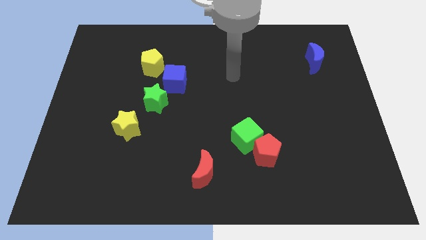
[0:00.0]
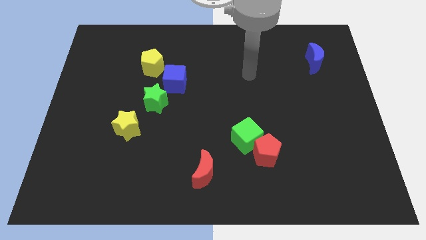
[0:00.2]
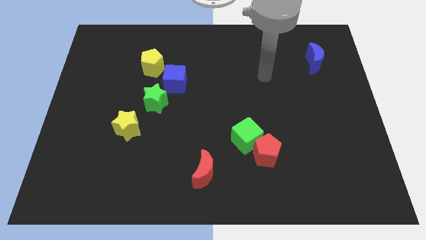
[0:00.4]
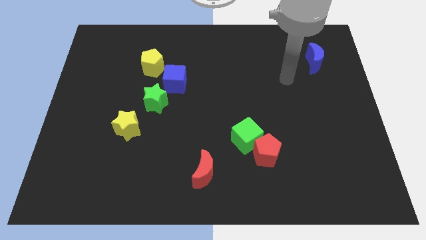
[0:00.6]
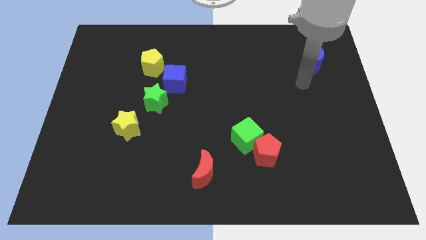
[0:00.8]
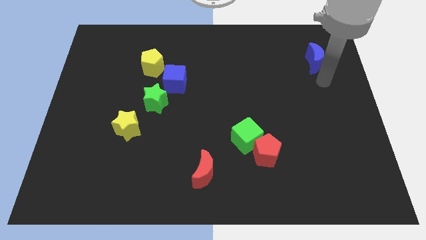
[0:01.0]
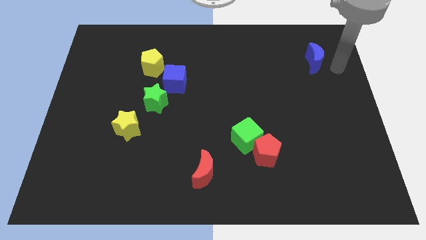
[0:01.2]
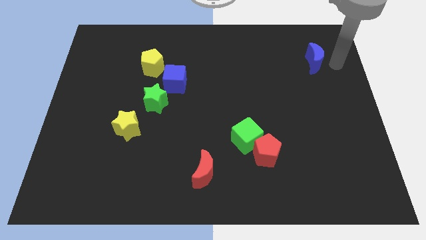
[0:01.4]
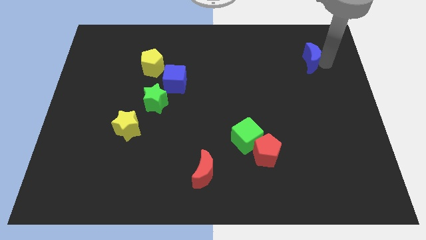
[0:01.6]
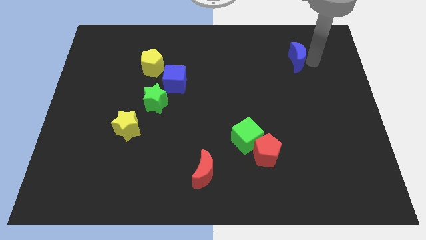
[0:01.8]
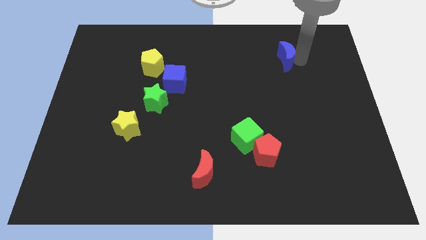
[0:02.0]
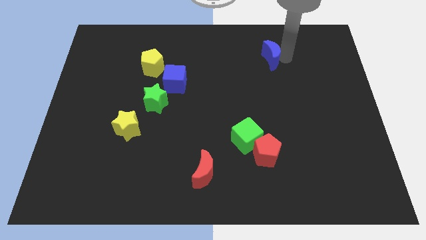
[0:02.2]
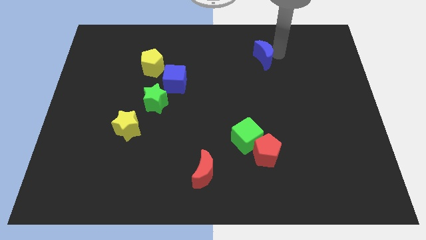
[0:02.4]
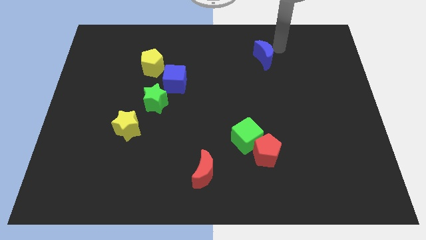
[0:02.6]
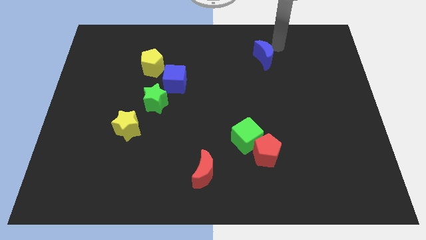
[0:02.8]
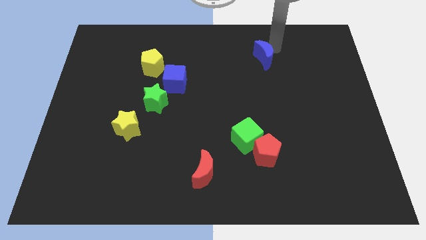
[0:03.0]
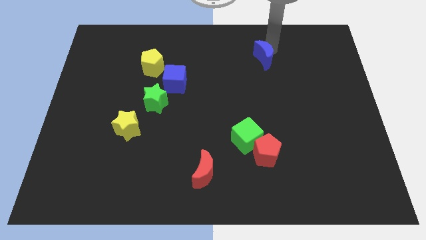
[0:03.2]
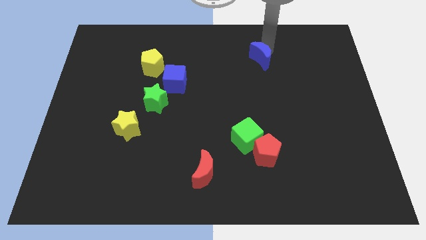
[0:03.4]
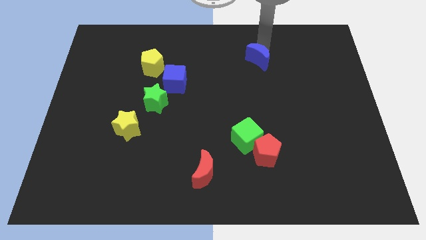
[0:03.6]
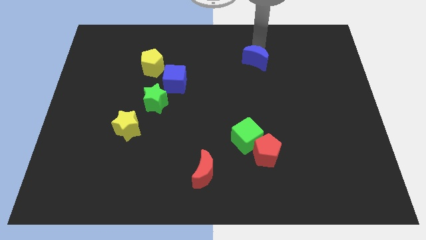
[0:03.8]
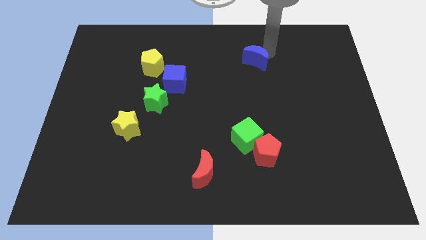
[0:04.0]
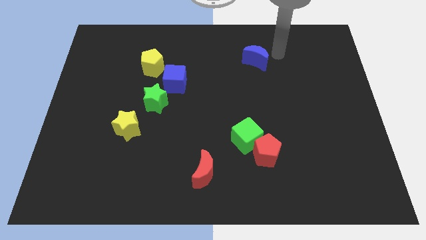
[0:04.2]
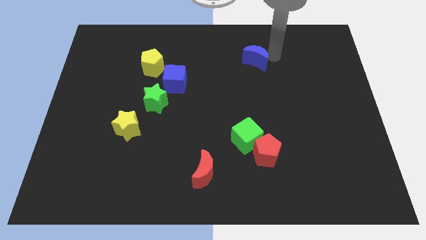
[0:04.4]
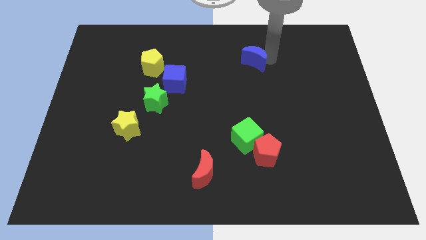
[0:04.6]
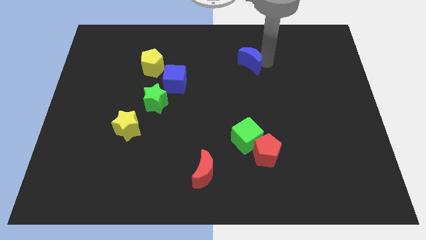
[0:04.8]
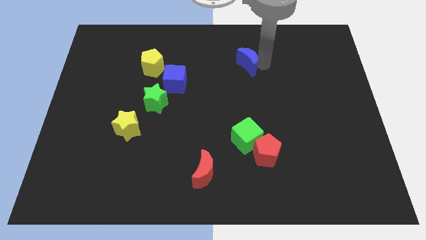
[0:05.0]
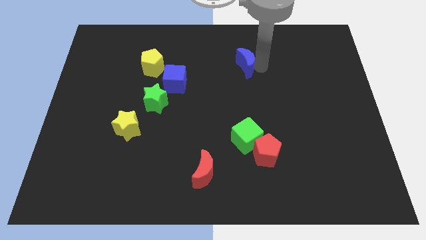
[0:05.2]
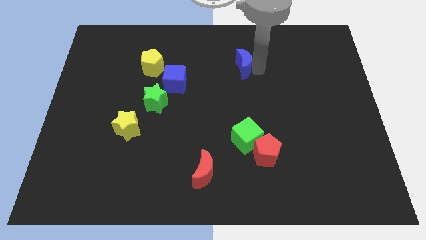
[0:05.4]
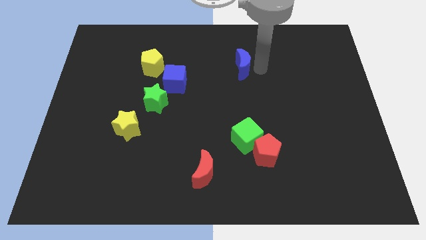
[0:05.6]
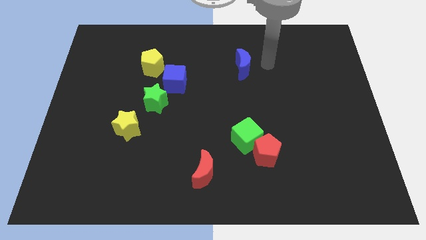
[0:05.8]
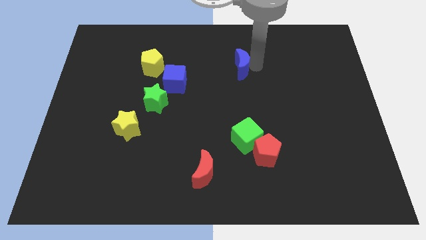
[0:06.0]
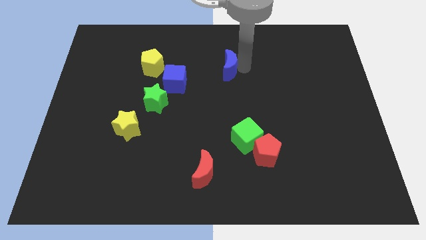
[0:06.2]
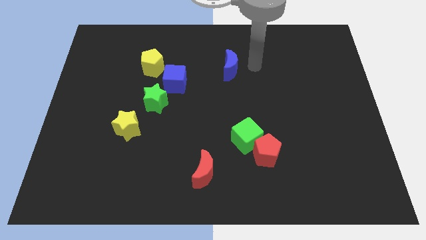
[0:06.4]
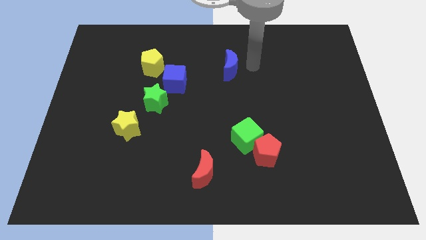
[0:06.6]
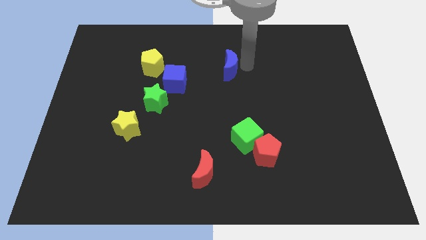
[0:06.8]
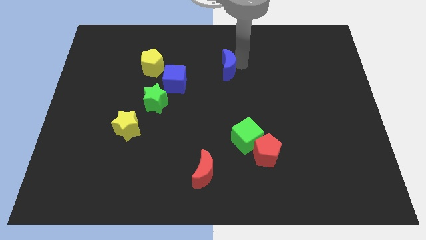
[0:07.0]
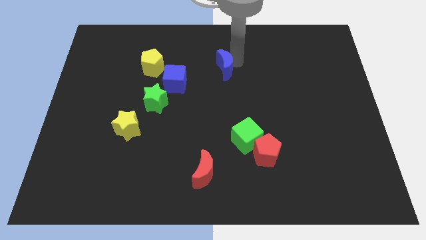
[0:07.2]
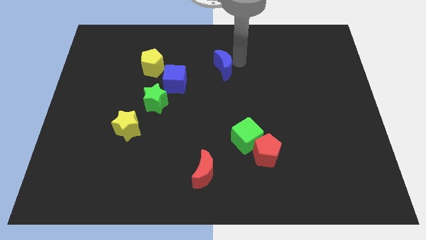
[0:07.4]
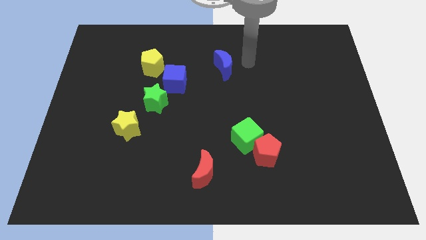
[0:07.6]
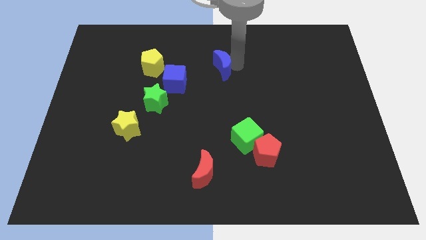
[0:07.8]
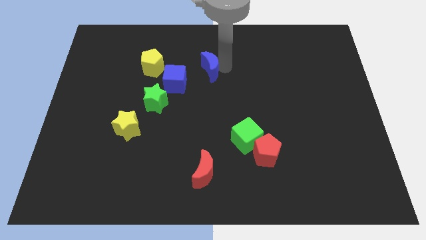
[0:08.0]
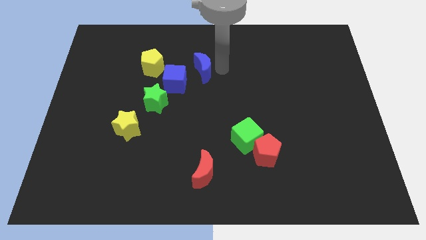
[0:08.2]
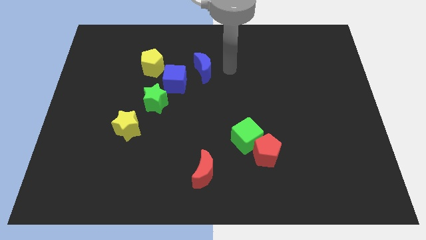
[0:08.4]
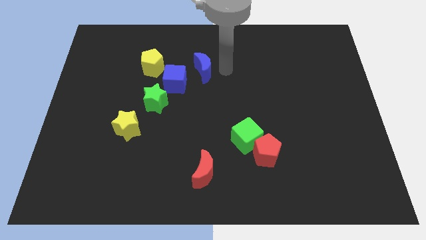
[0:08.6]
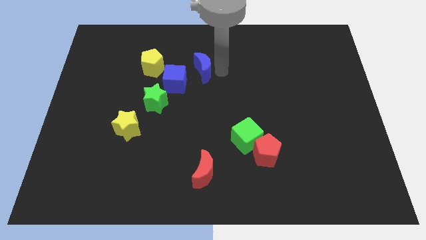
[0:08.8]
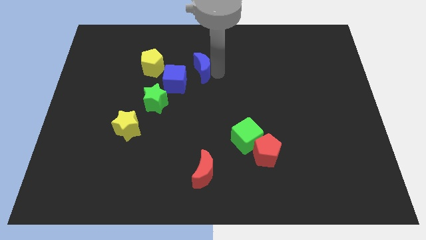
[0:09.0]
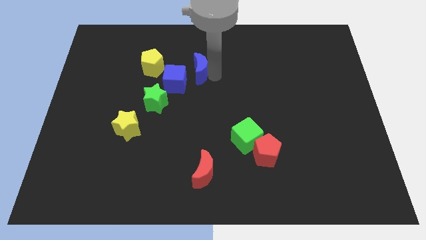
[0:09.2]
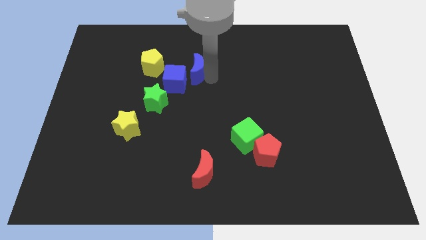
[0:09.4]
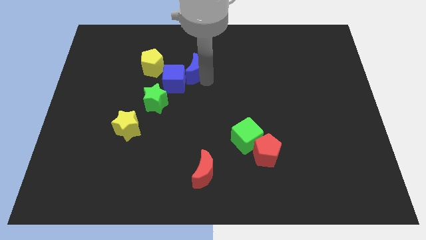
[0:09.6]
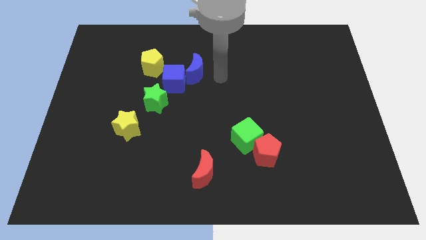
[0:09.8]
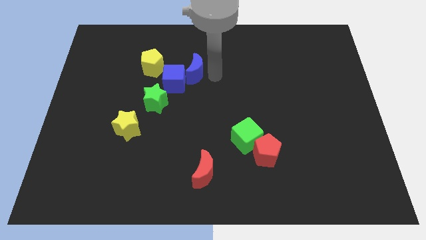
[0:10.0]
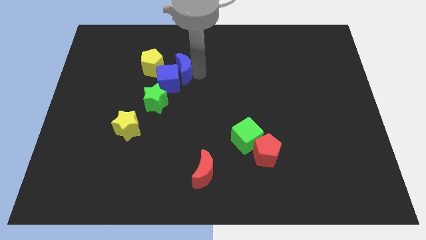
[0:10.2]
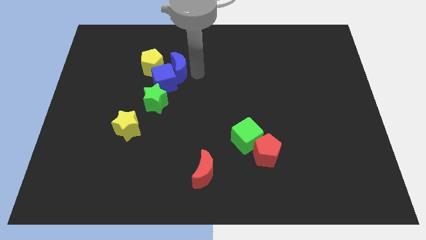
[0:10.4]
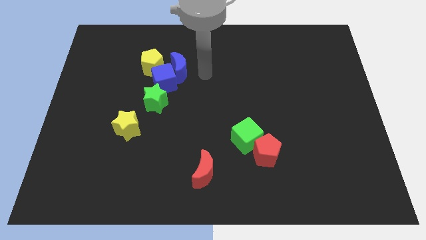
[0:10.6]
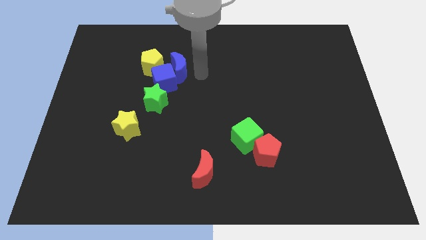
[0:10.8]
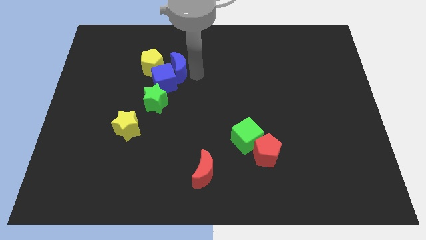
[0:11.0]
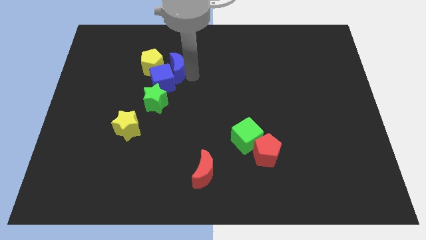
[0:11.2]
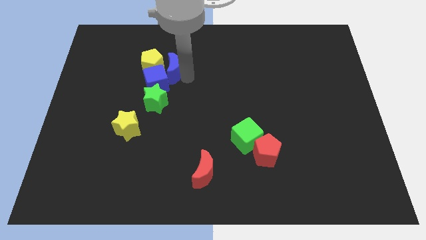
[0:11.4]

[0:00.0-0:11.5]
push the blue moon to the yellow pentagon
